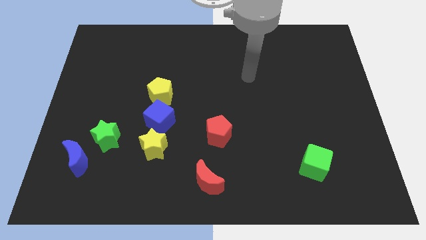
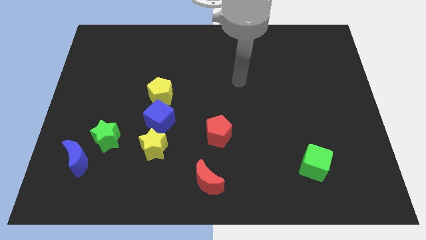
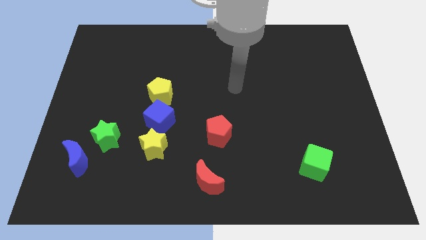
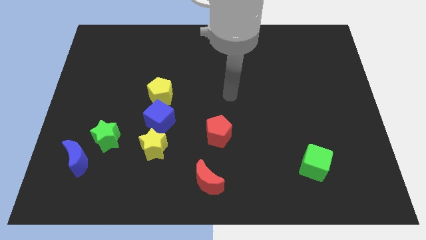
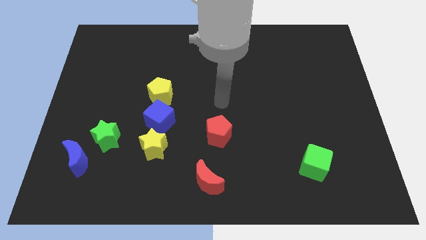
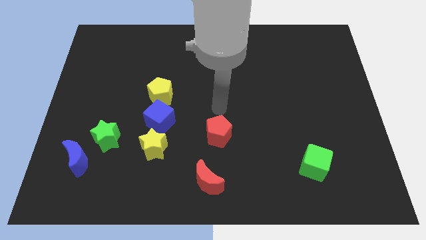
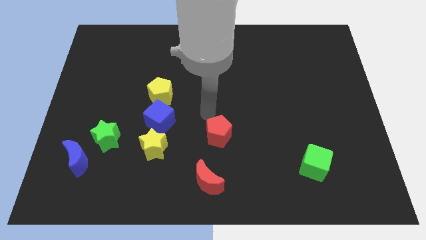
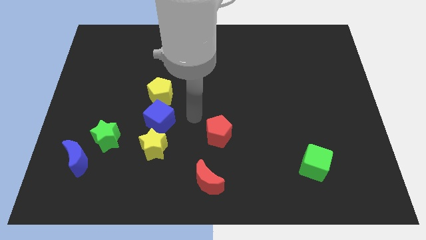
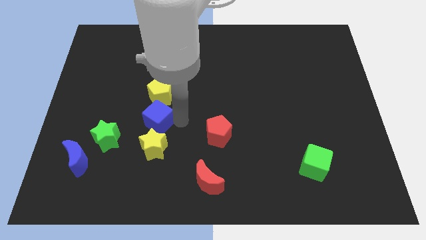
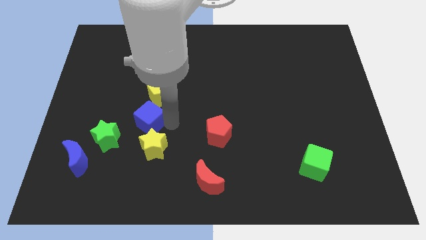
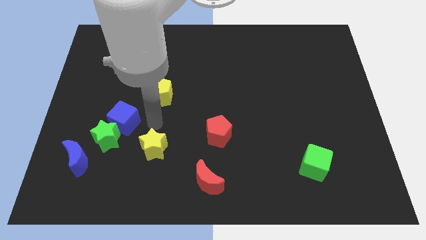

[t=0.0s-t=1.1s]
separate the yellow star from the blue cube

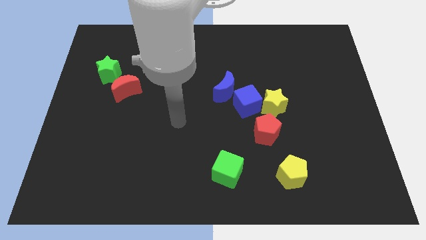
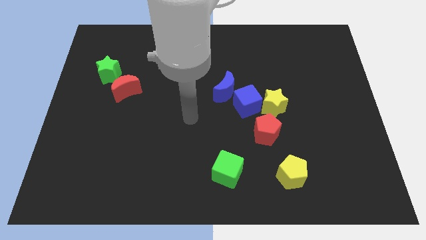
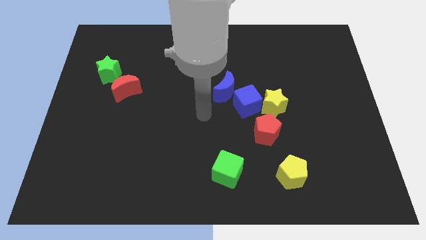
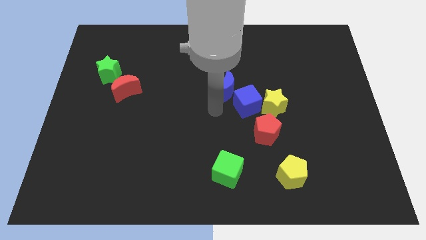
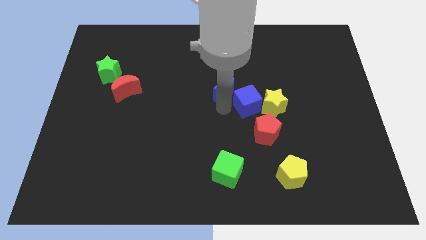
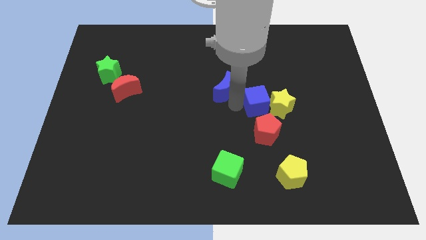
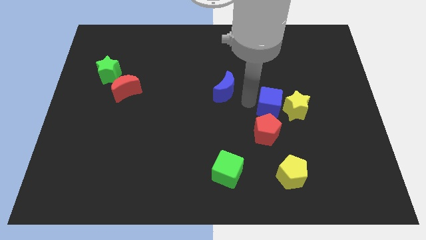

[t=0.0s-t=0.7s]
separate the blue moon from the blue cube

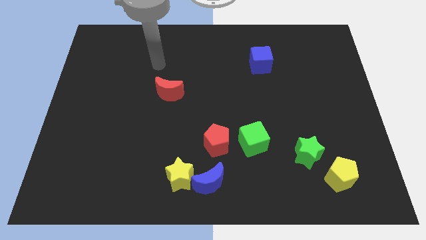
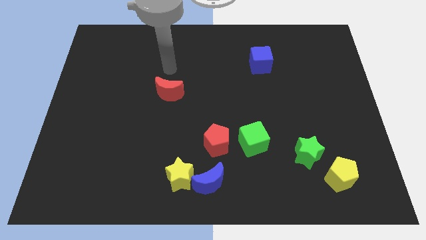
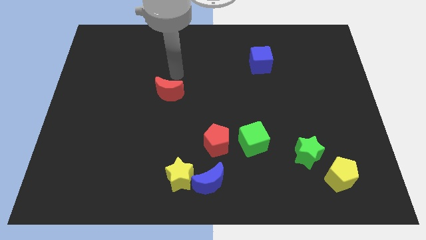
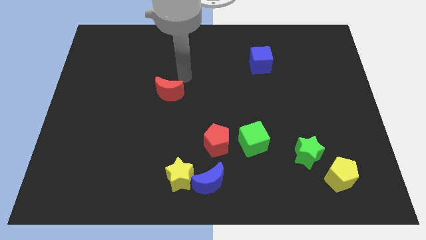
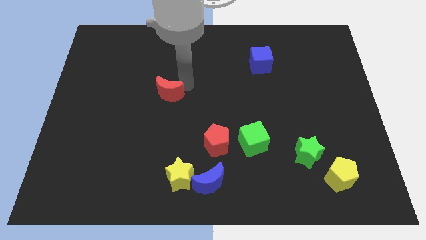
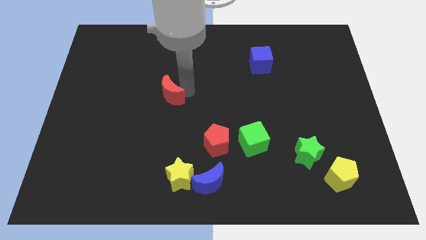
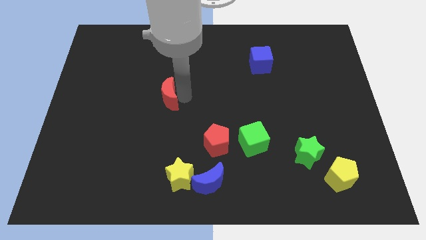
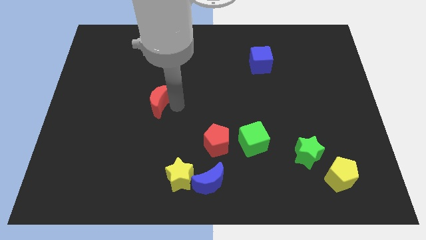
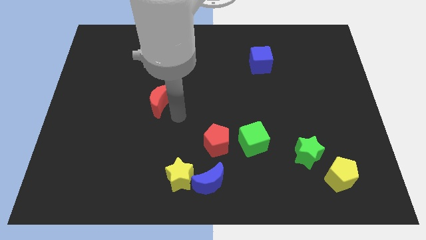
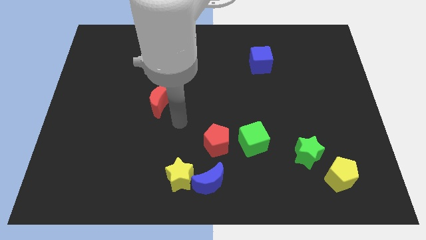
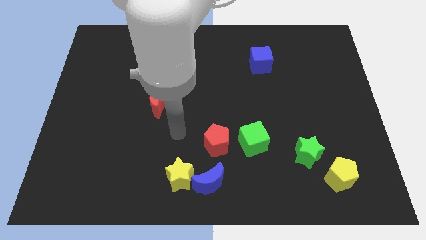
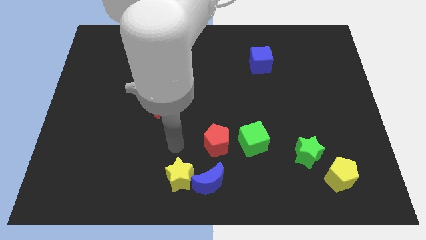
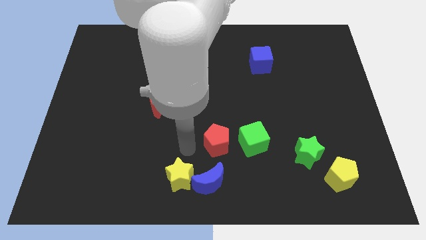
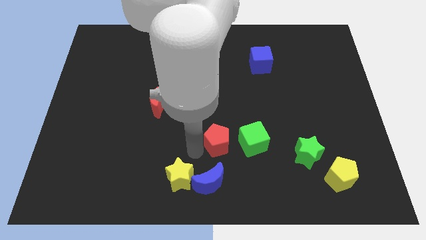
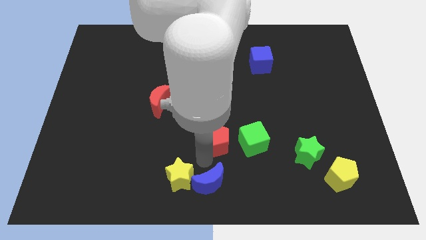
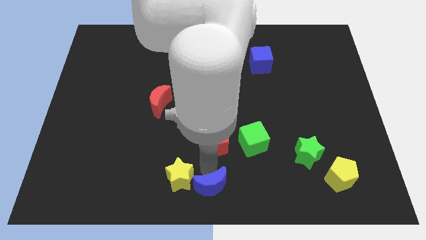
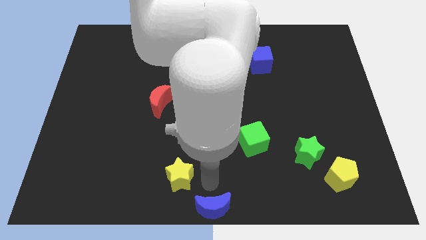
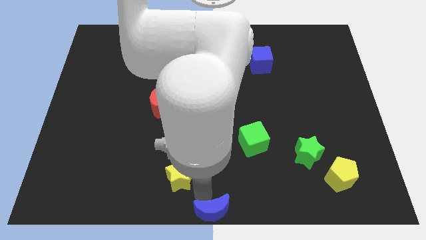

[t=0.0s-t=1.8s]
separate the yellow star from the blue moon

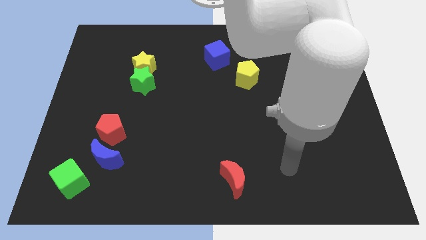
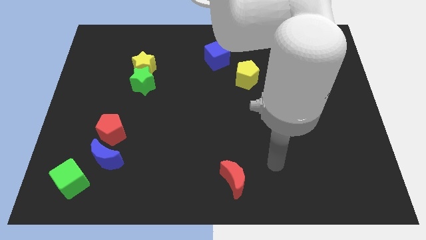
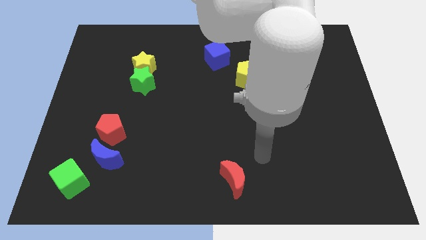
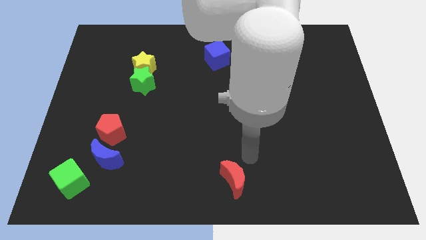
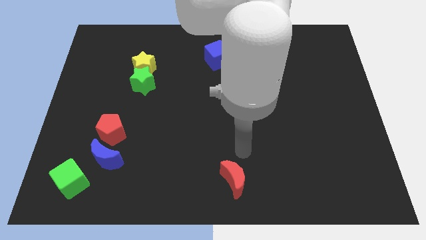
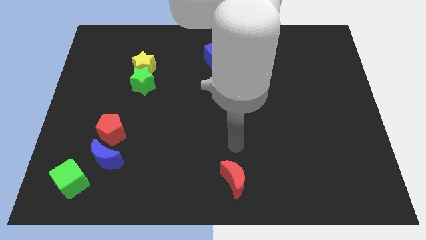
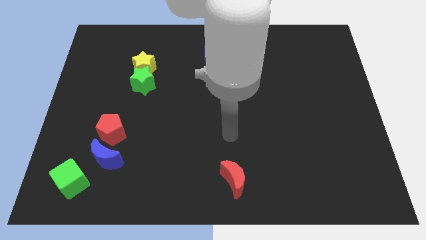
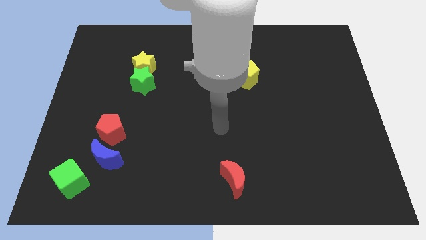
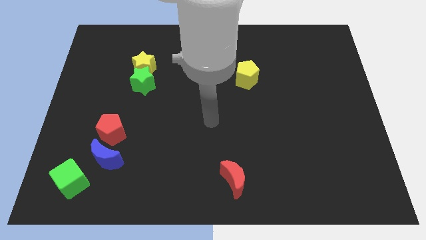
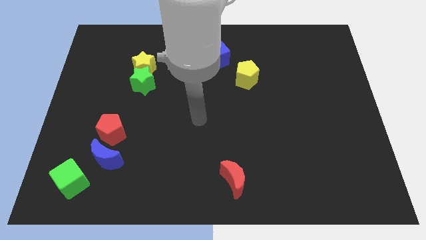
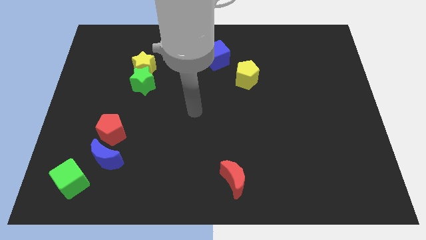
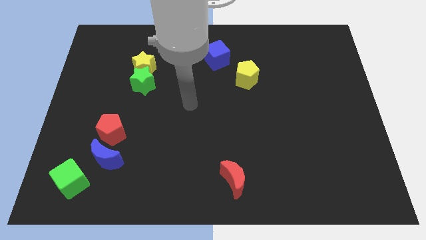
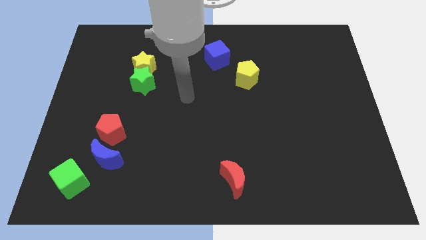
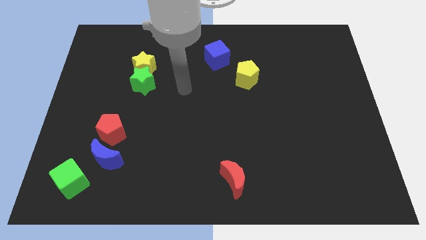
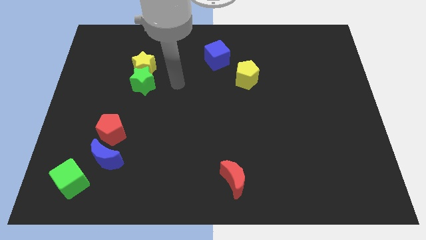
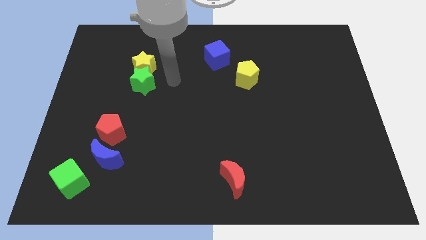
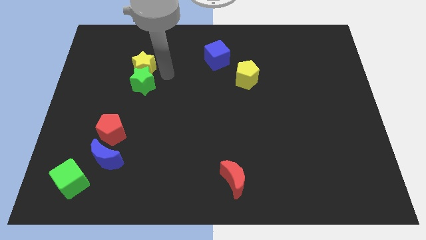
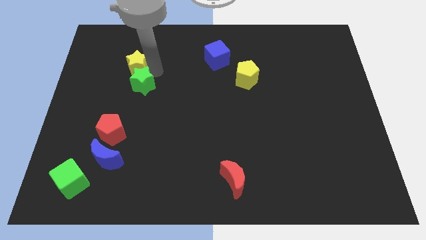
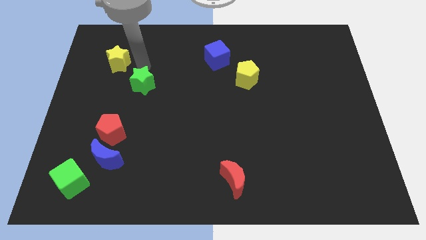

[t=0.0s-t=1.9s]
move the green star away from the yellow star

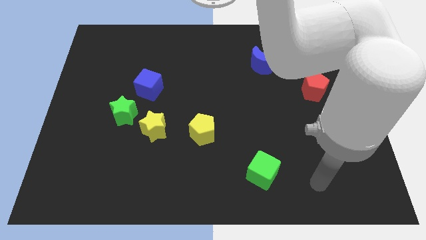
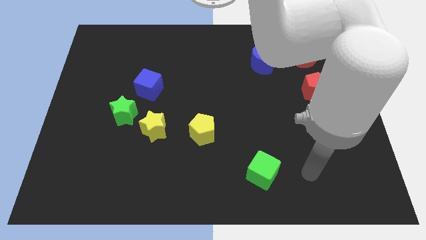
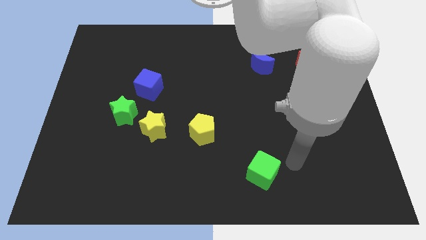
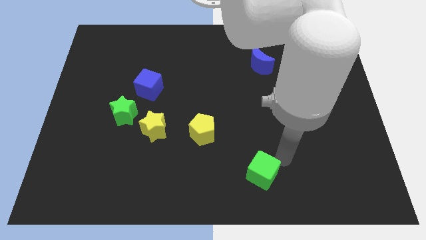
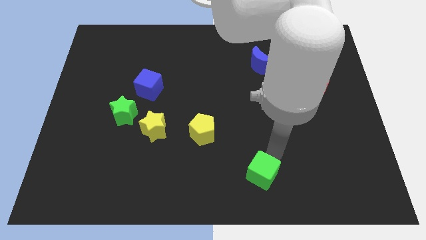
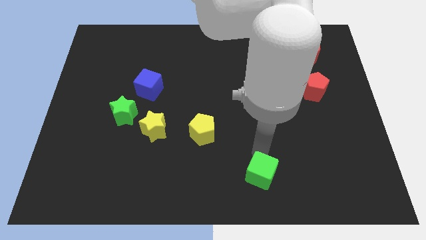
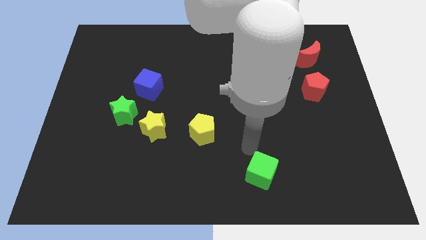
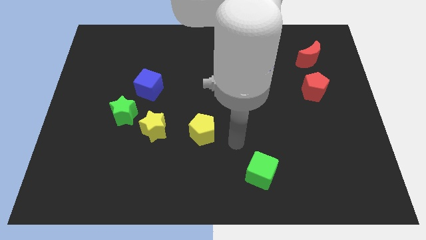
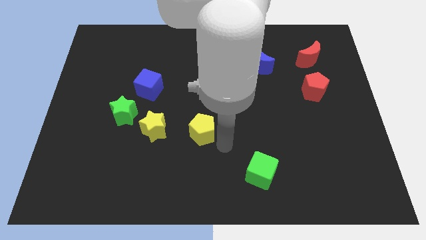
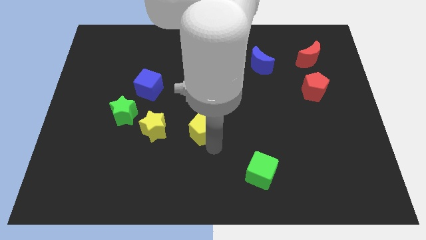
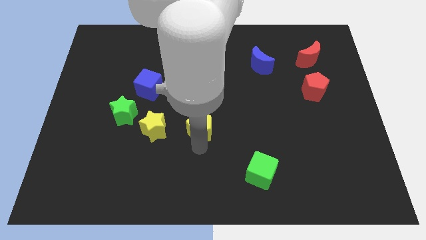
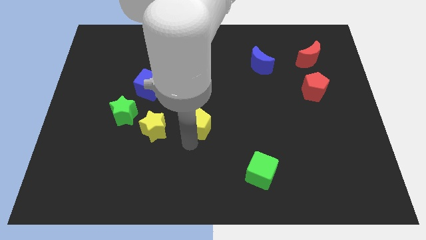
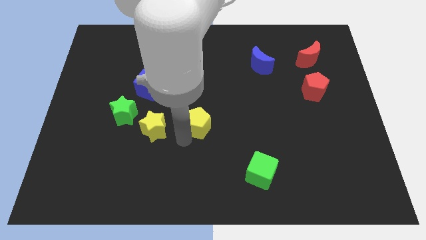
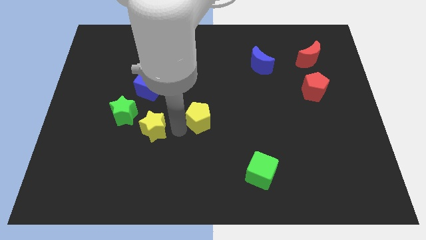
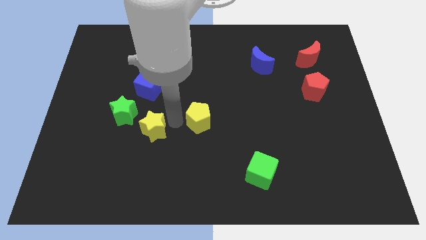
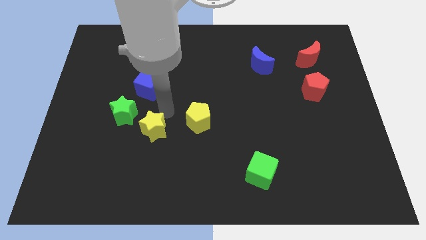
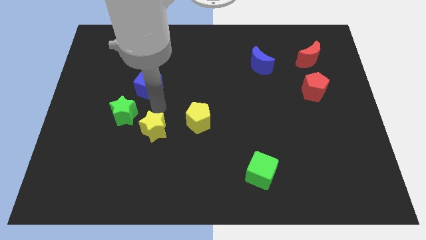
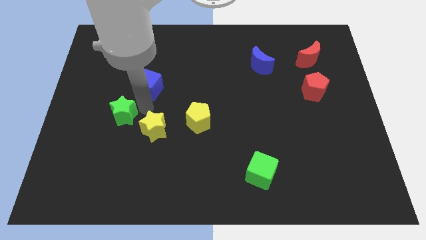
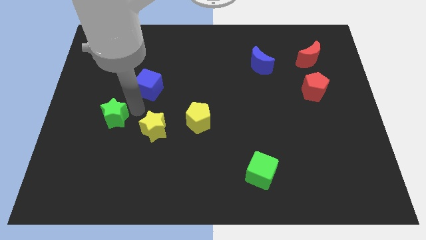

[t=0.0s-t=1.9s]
pull the yellow star apart from the green star

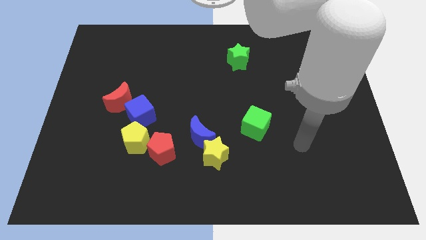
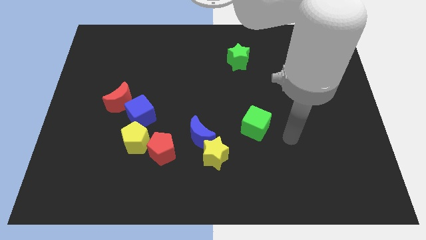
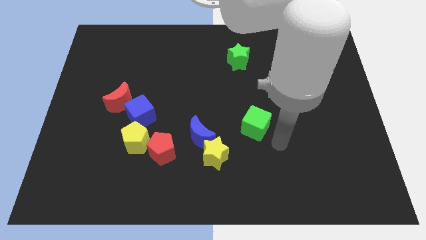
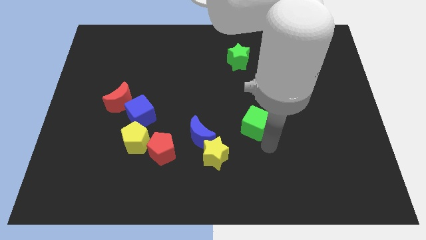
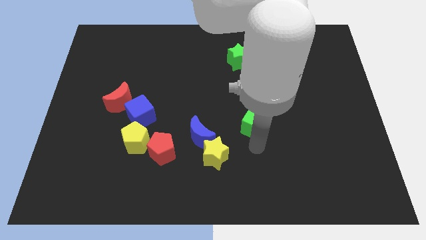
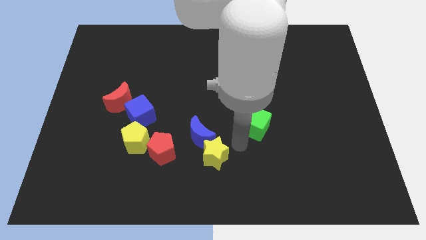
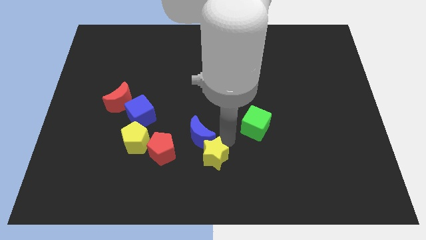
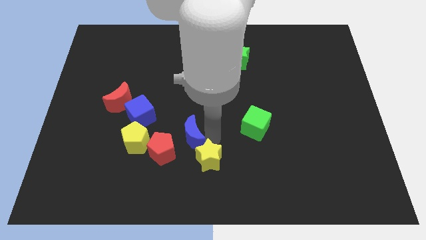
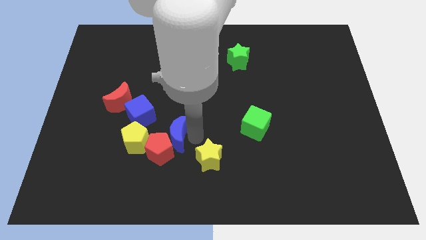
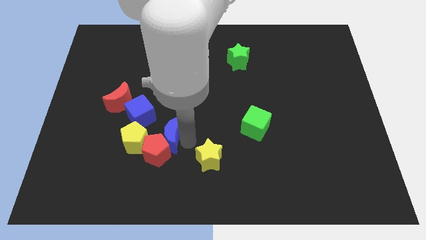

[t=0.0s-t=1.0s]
move the yellow star away from the blue moon

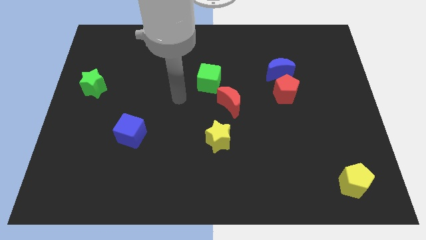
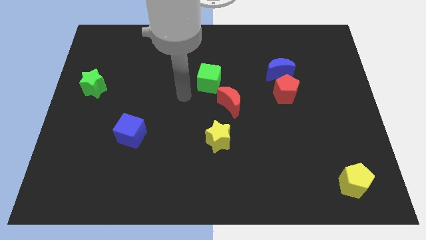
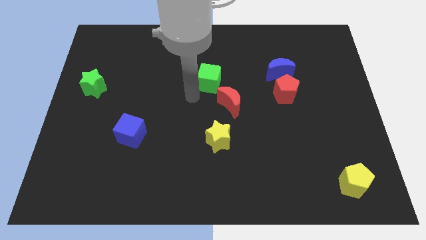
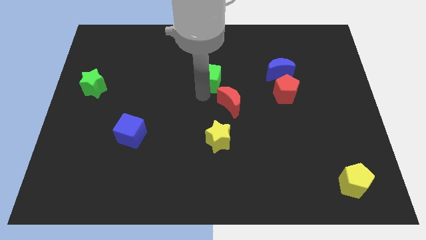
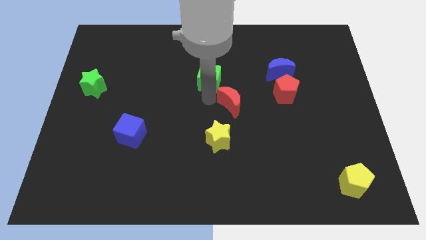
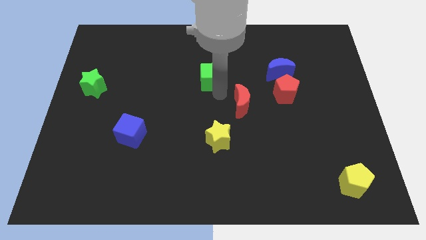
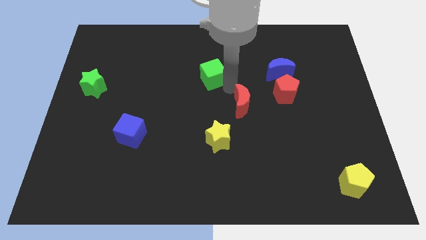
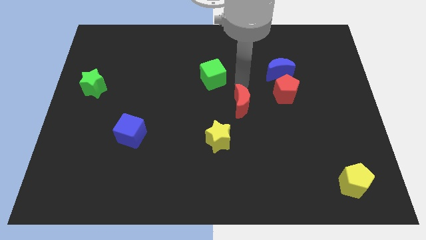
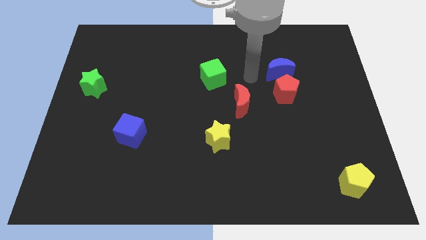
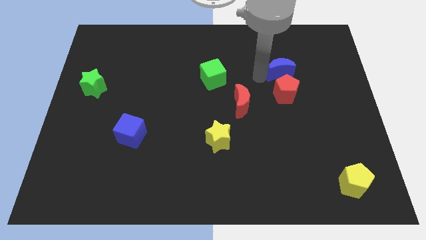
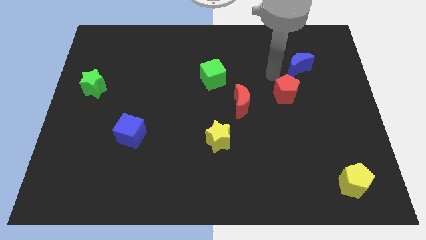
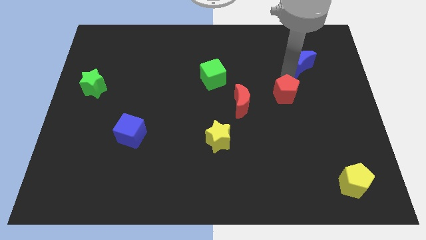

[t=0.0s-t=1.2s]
pull the red pentagon apart from the blue moon
